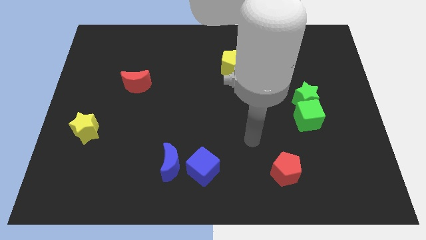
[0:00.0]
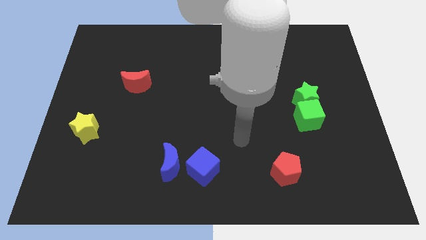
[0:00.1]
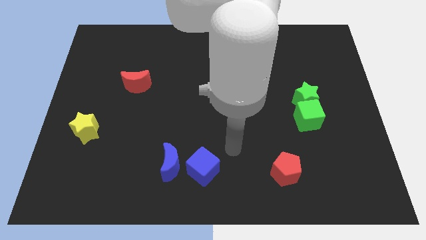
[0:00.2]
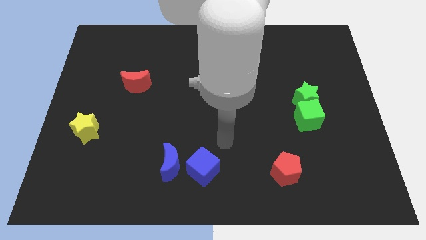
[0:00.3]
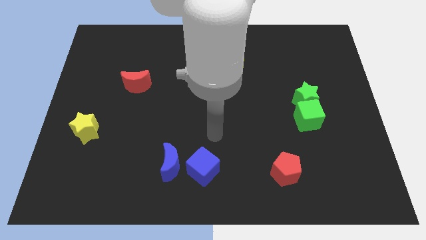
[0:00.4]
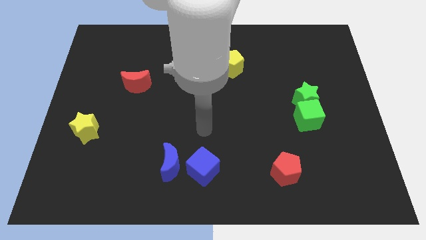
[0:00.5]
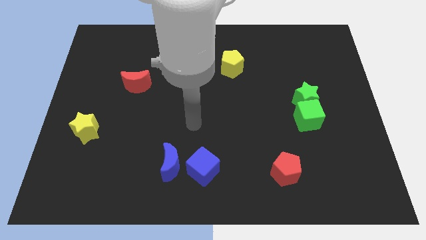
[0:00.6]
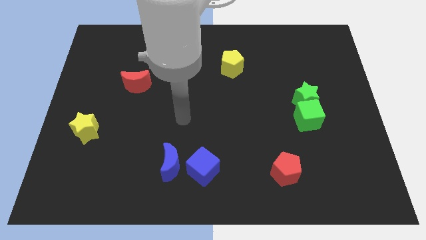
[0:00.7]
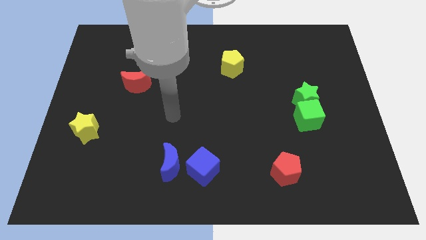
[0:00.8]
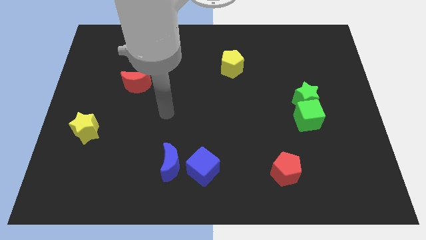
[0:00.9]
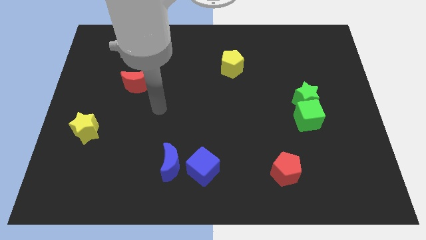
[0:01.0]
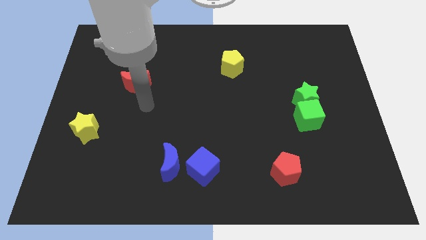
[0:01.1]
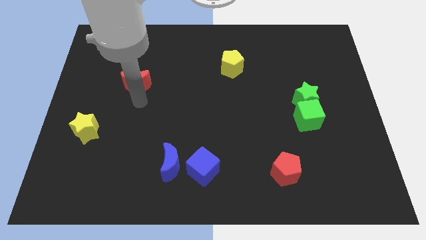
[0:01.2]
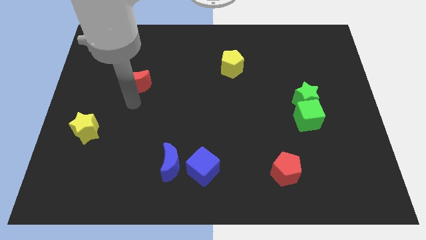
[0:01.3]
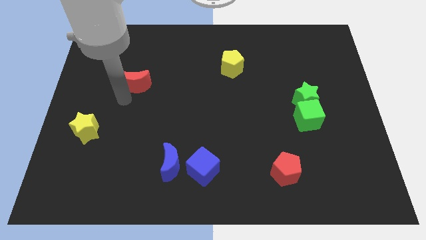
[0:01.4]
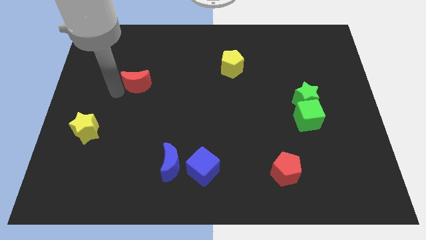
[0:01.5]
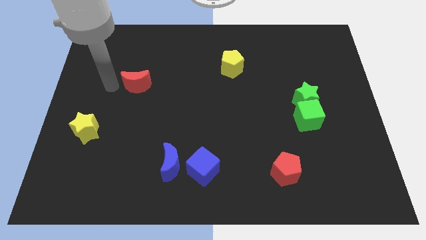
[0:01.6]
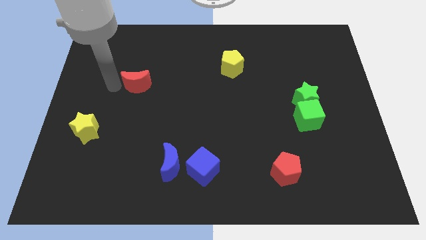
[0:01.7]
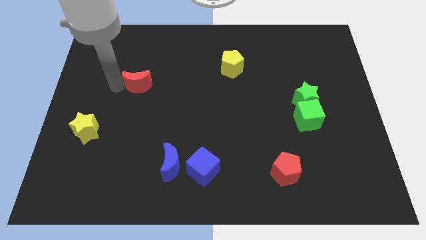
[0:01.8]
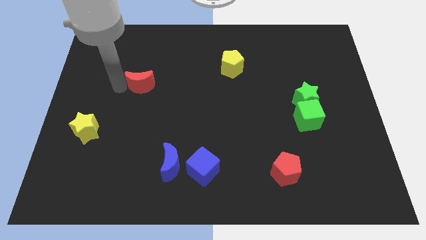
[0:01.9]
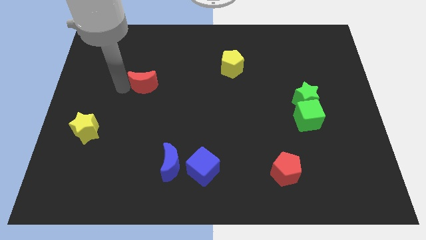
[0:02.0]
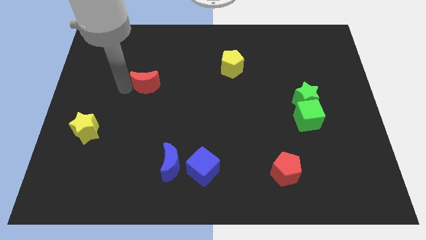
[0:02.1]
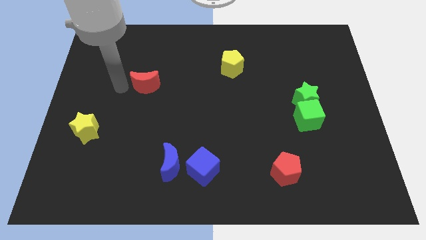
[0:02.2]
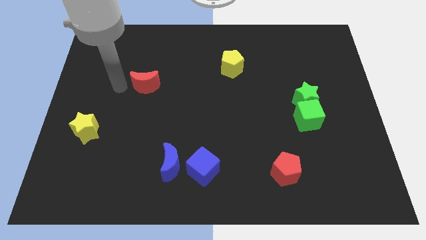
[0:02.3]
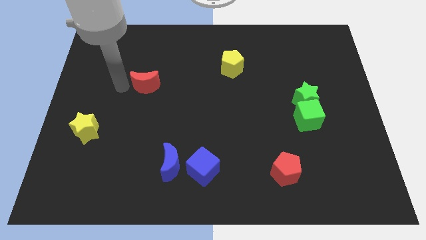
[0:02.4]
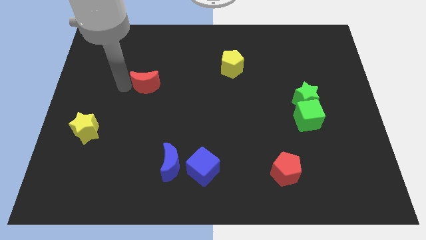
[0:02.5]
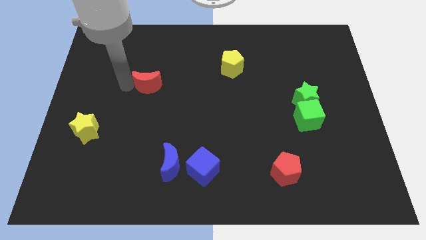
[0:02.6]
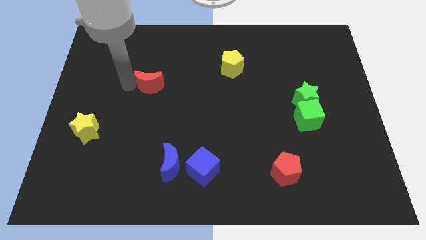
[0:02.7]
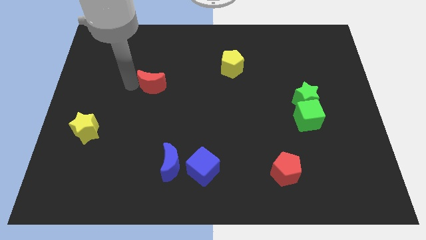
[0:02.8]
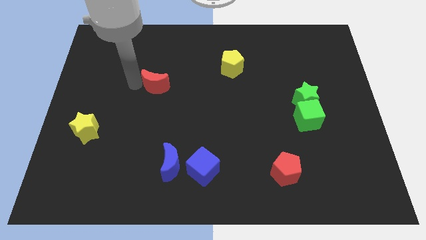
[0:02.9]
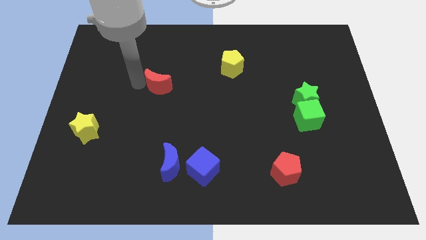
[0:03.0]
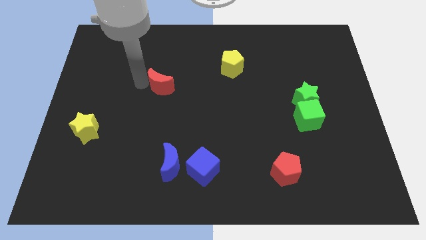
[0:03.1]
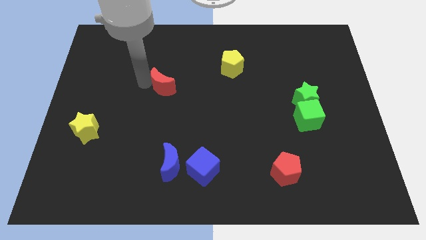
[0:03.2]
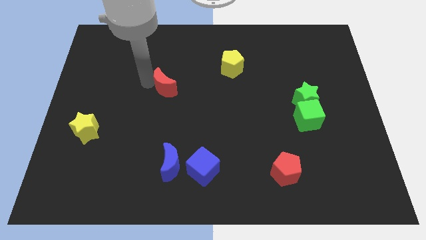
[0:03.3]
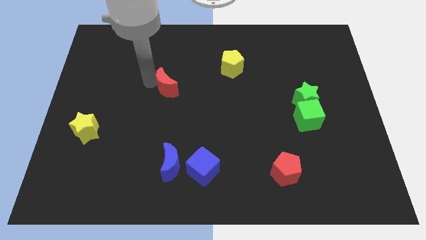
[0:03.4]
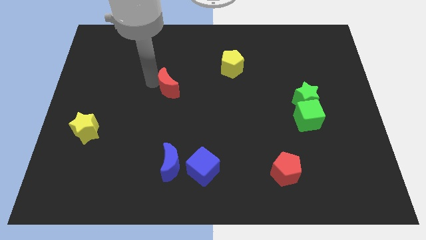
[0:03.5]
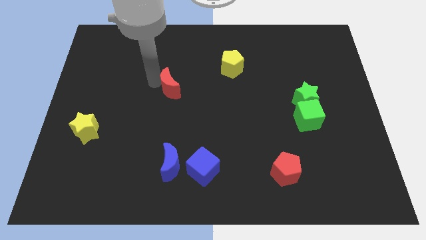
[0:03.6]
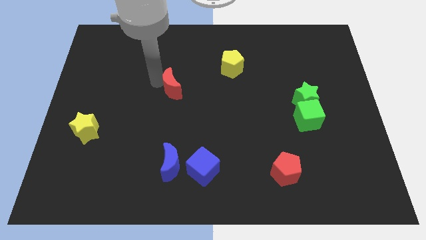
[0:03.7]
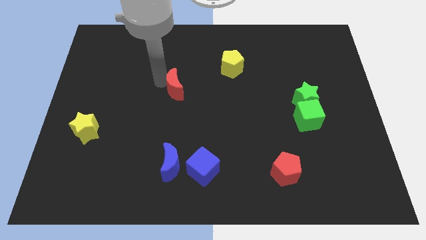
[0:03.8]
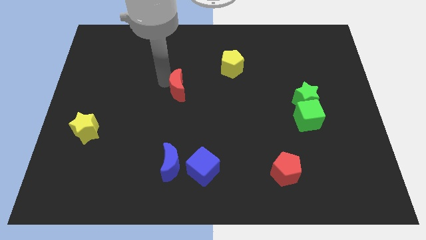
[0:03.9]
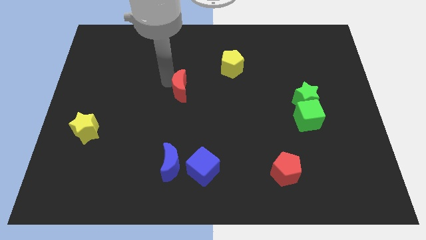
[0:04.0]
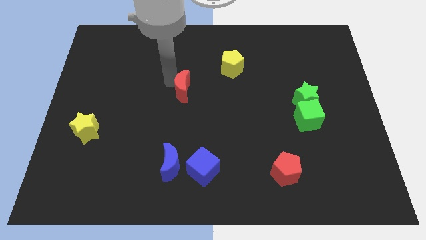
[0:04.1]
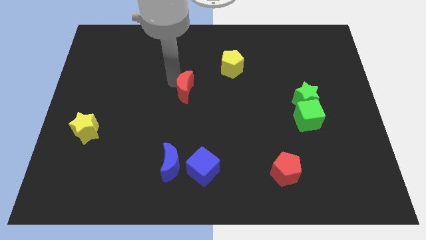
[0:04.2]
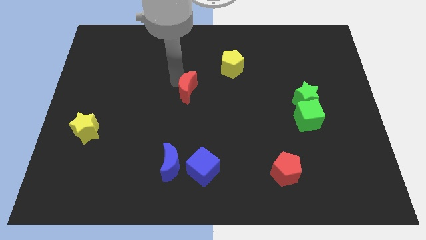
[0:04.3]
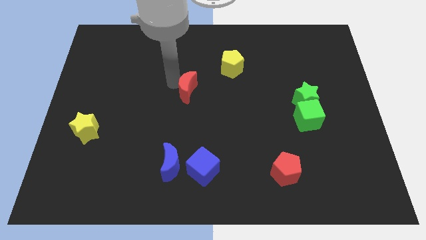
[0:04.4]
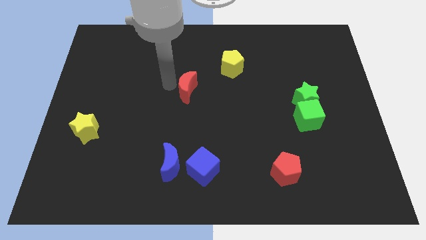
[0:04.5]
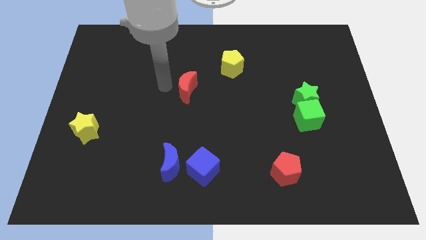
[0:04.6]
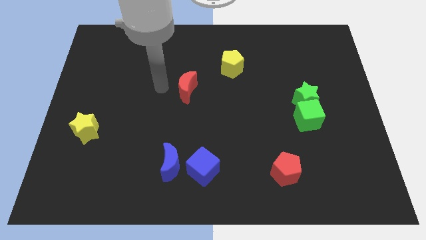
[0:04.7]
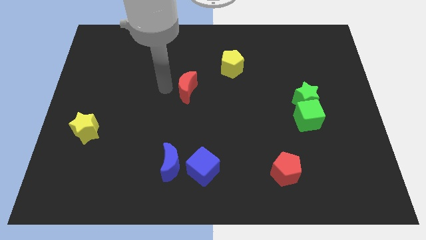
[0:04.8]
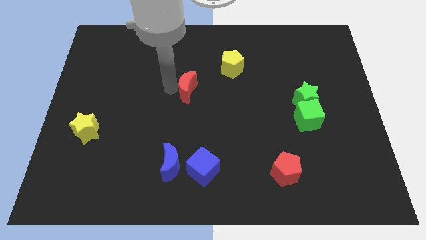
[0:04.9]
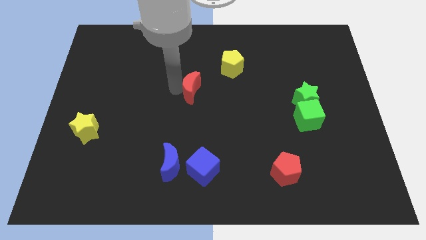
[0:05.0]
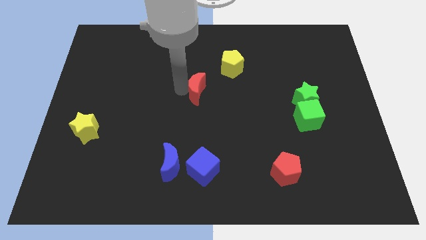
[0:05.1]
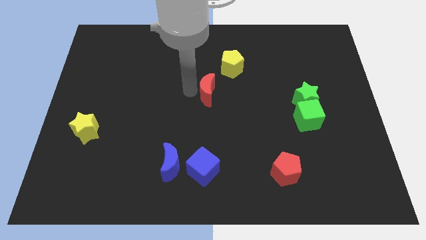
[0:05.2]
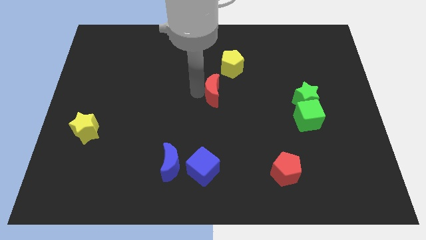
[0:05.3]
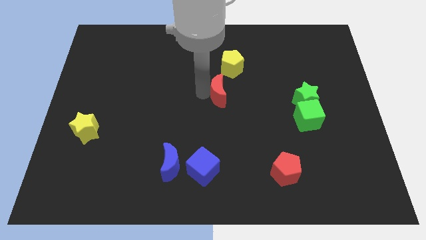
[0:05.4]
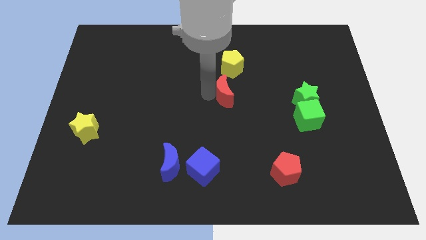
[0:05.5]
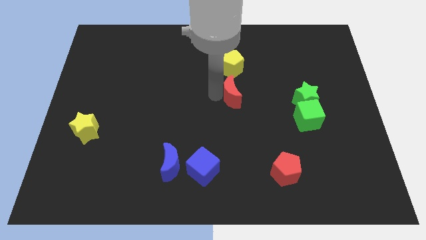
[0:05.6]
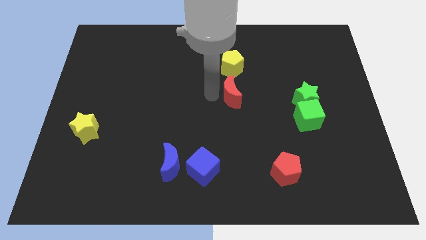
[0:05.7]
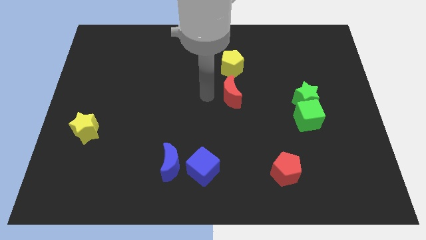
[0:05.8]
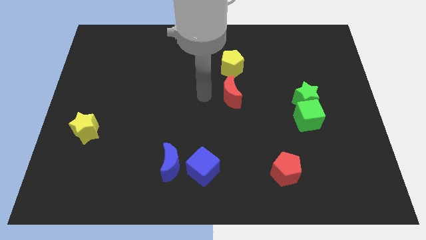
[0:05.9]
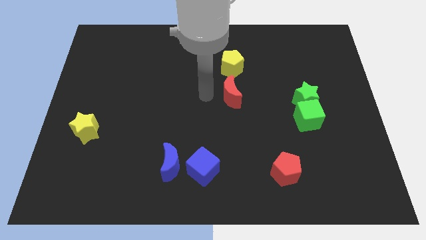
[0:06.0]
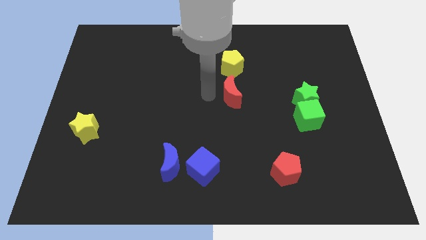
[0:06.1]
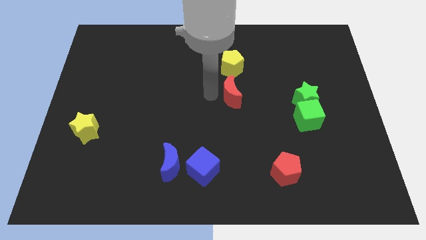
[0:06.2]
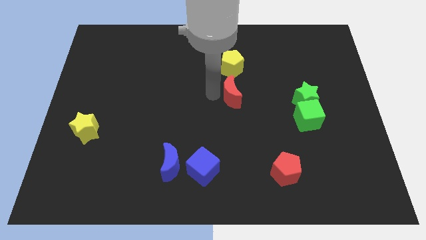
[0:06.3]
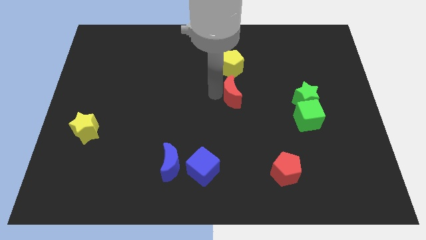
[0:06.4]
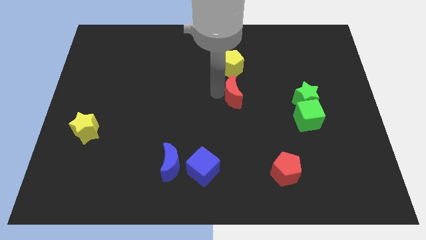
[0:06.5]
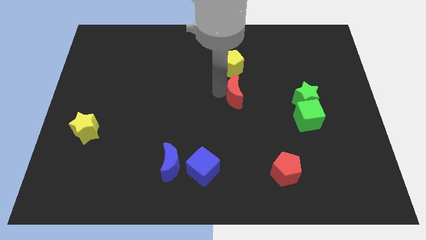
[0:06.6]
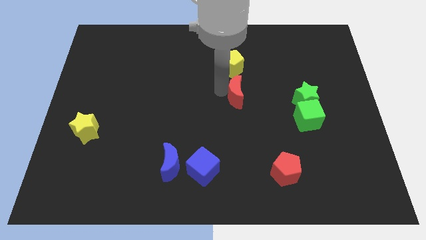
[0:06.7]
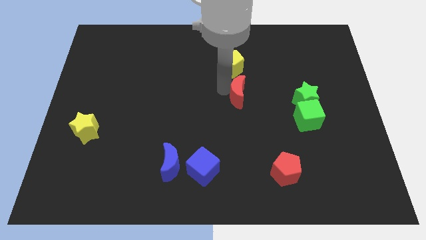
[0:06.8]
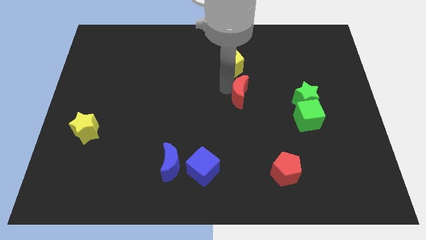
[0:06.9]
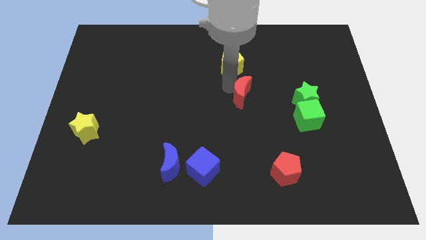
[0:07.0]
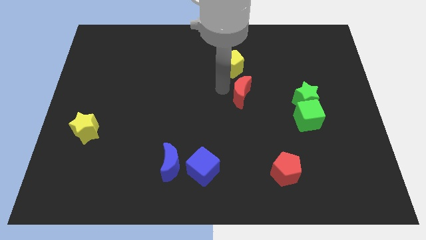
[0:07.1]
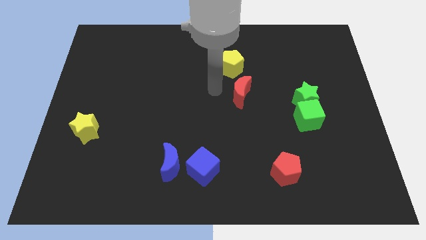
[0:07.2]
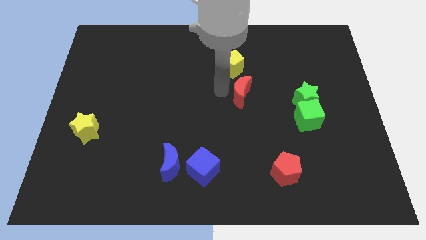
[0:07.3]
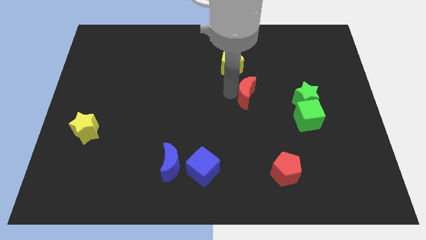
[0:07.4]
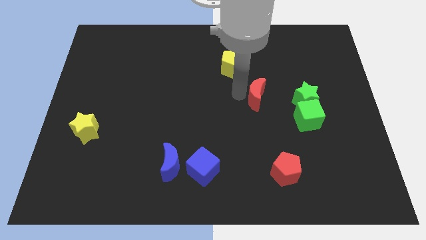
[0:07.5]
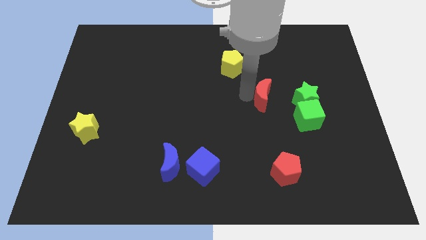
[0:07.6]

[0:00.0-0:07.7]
move the red moon to the top left of the green cube
